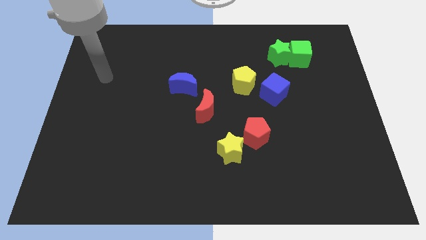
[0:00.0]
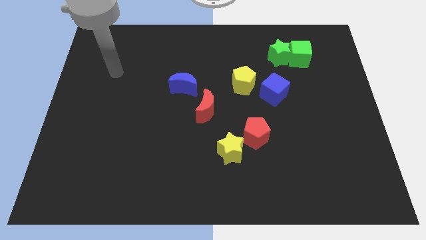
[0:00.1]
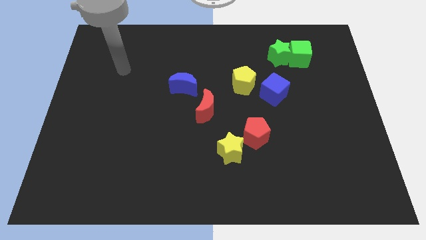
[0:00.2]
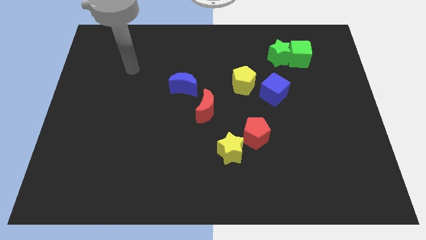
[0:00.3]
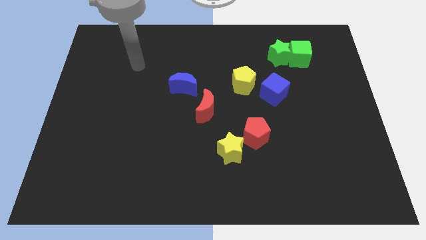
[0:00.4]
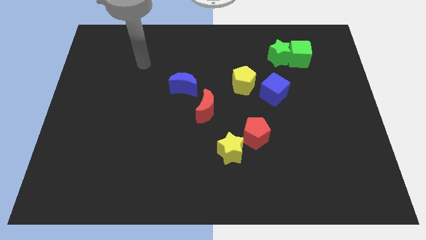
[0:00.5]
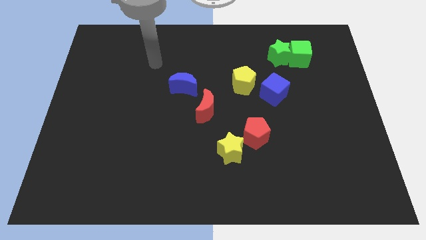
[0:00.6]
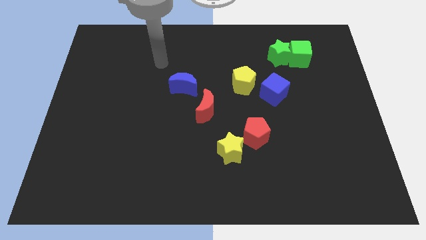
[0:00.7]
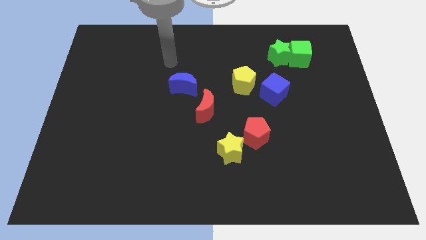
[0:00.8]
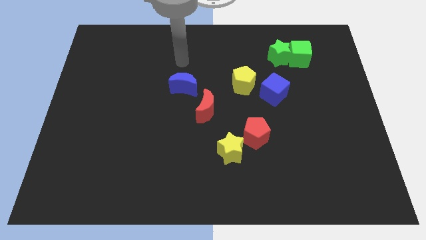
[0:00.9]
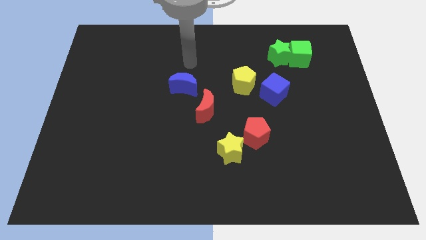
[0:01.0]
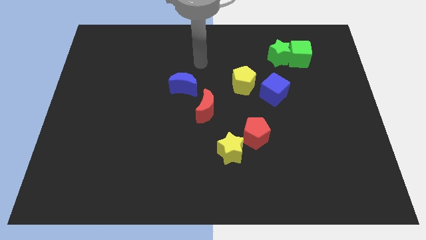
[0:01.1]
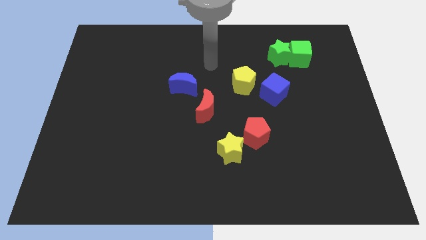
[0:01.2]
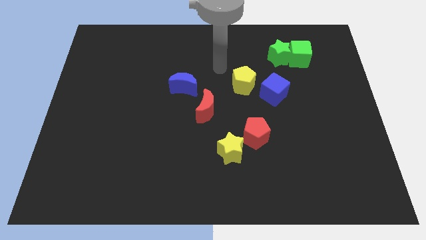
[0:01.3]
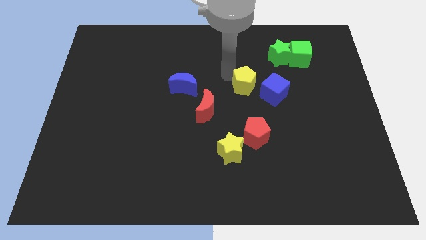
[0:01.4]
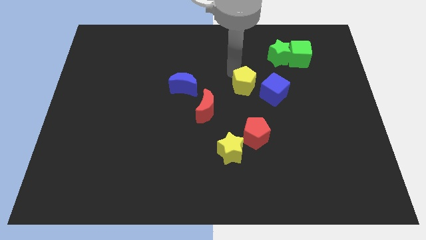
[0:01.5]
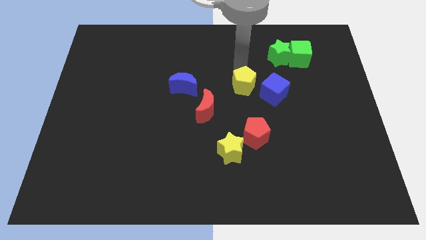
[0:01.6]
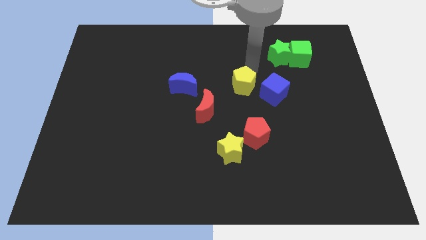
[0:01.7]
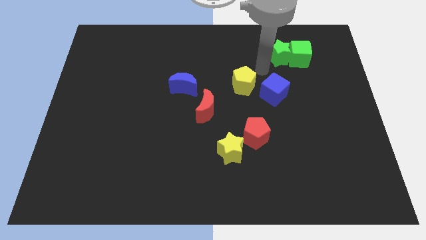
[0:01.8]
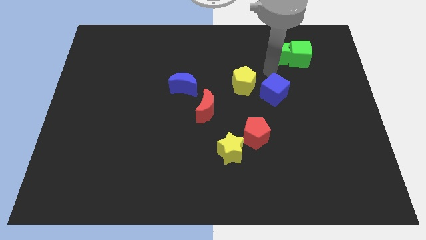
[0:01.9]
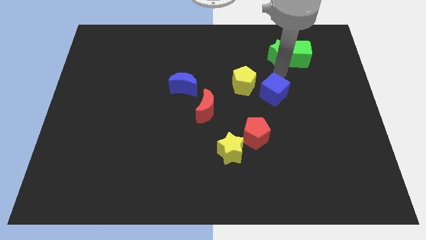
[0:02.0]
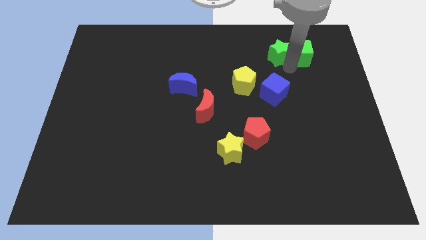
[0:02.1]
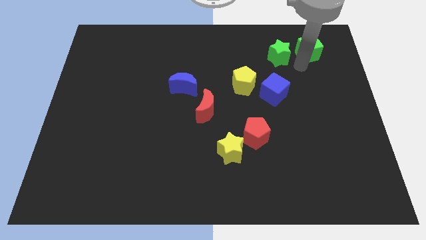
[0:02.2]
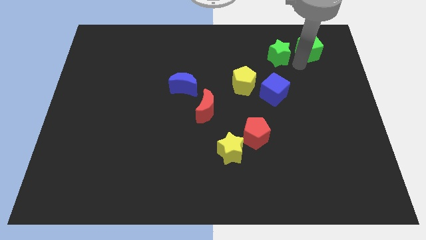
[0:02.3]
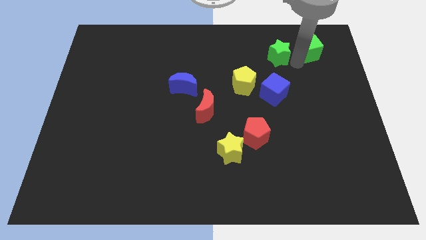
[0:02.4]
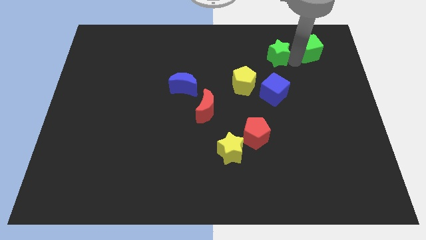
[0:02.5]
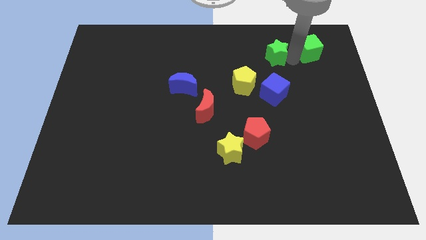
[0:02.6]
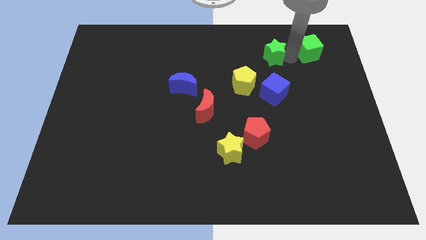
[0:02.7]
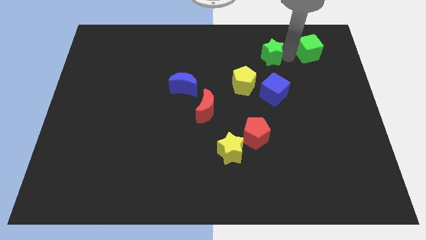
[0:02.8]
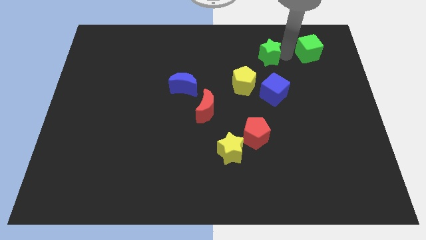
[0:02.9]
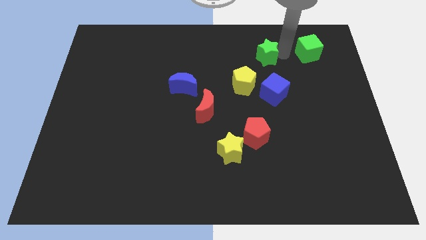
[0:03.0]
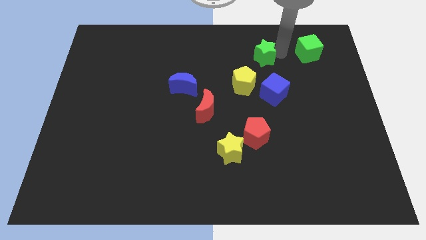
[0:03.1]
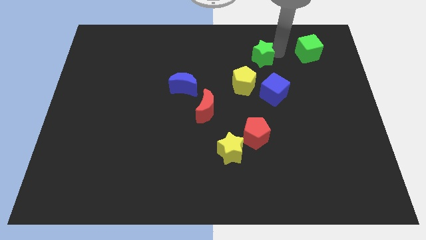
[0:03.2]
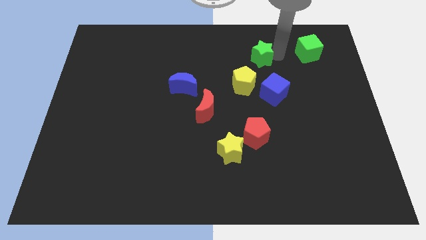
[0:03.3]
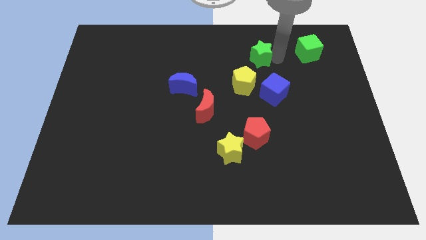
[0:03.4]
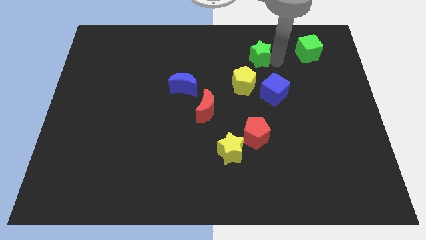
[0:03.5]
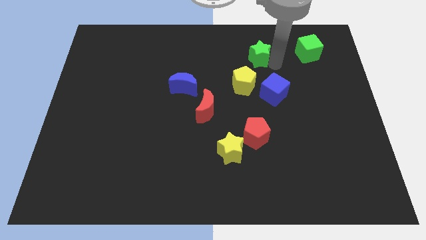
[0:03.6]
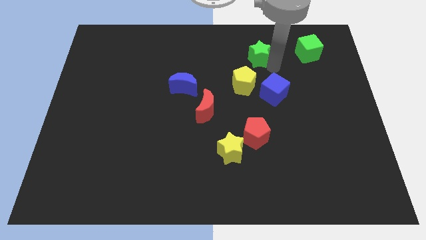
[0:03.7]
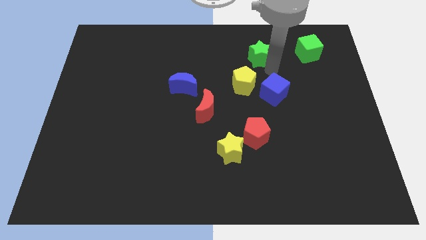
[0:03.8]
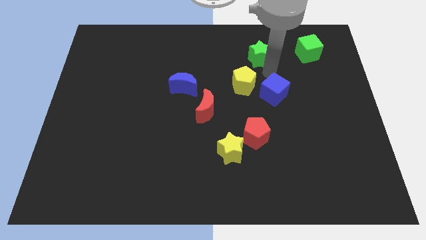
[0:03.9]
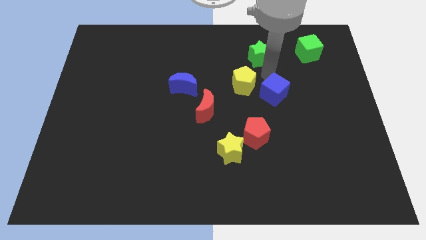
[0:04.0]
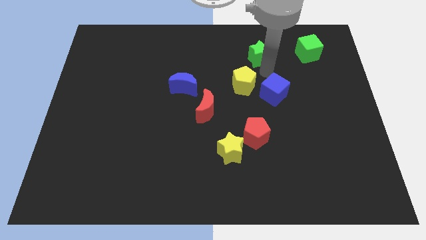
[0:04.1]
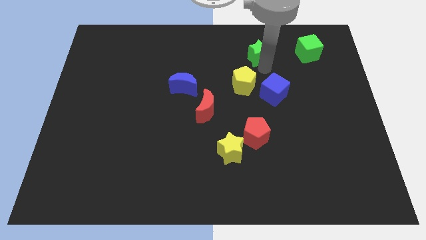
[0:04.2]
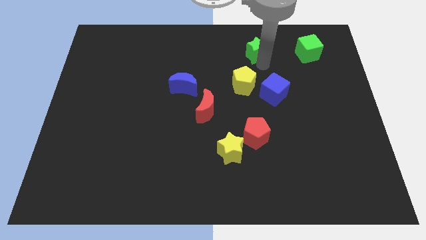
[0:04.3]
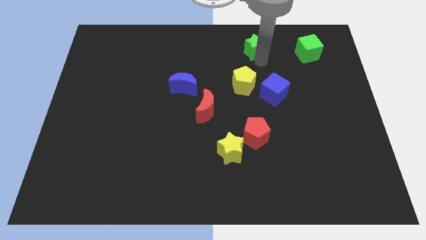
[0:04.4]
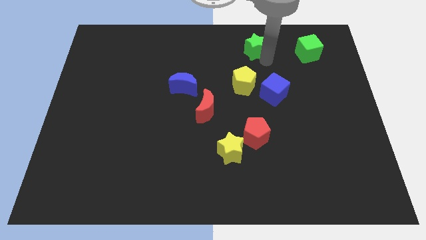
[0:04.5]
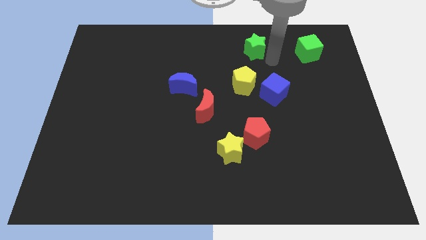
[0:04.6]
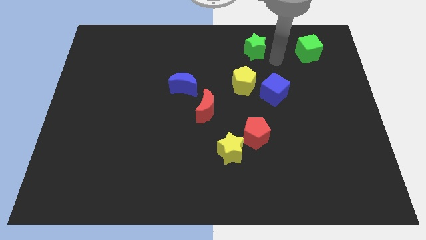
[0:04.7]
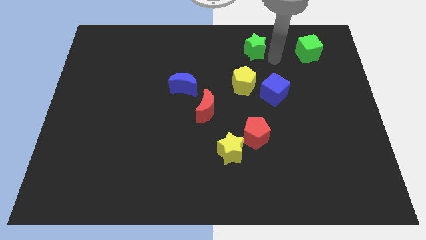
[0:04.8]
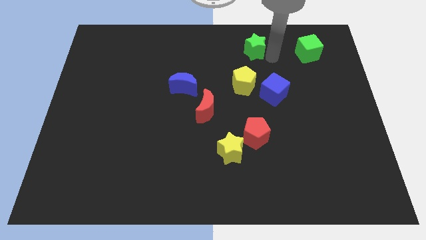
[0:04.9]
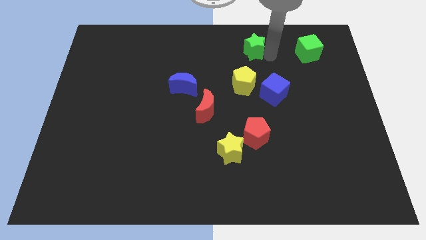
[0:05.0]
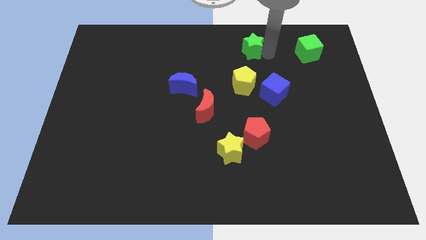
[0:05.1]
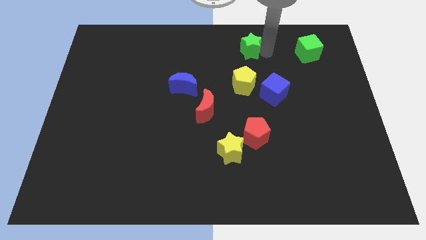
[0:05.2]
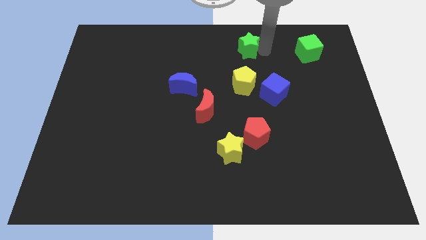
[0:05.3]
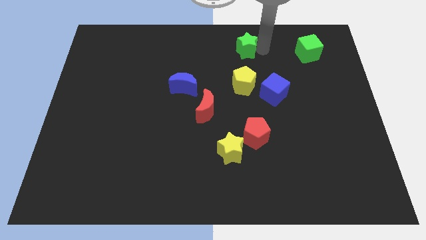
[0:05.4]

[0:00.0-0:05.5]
slide the green star to the top side

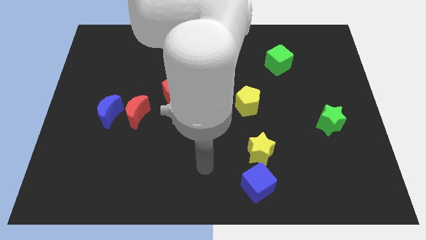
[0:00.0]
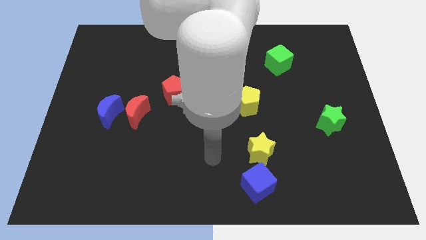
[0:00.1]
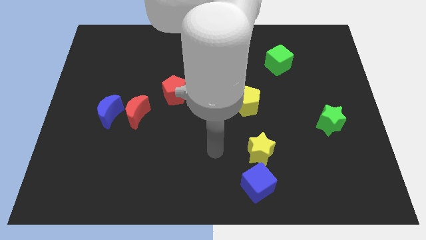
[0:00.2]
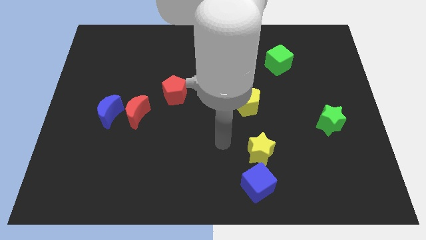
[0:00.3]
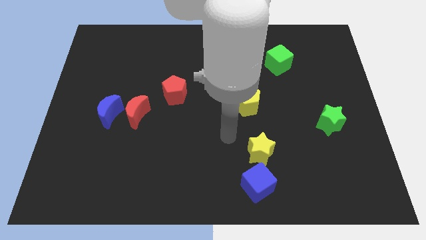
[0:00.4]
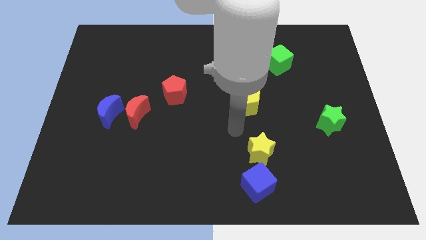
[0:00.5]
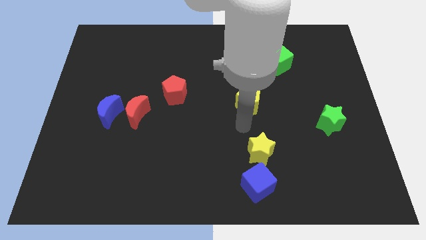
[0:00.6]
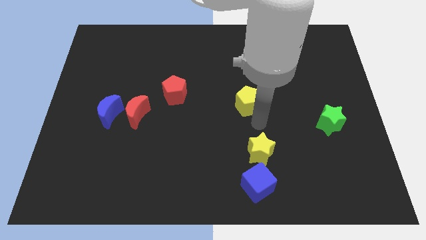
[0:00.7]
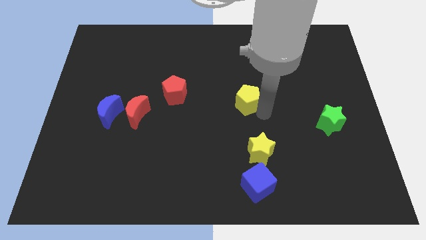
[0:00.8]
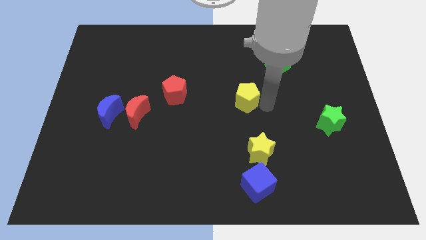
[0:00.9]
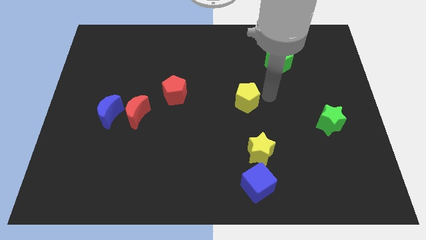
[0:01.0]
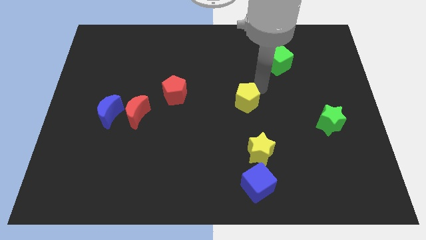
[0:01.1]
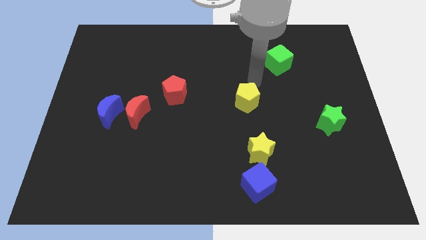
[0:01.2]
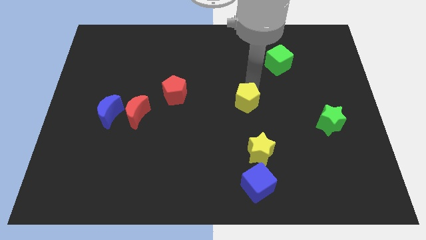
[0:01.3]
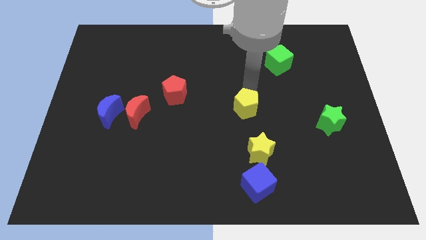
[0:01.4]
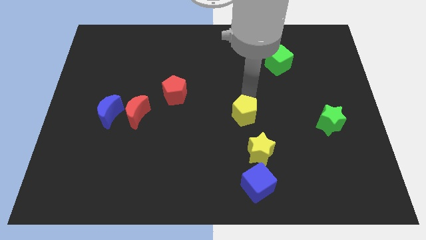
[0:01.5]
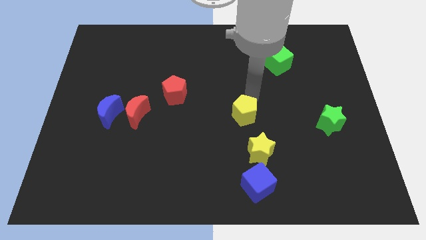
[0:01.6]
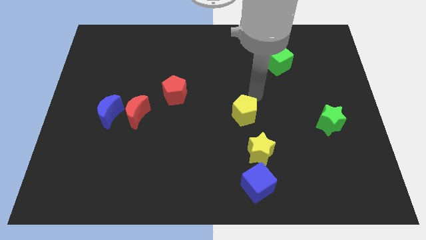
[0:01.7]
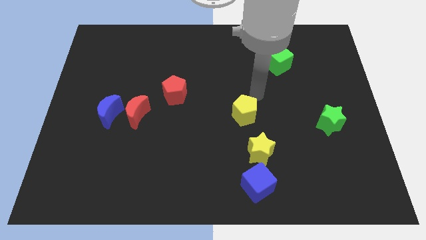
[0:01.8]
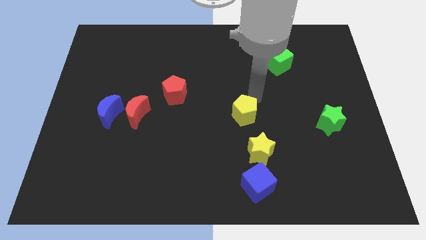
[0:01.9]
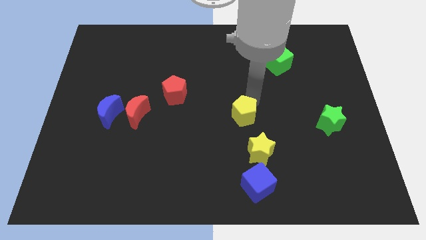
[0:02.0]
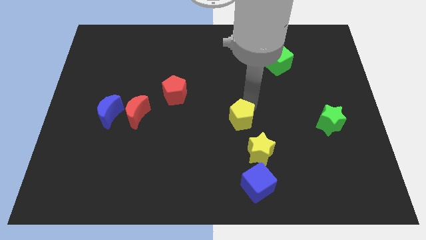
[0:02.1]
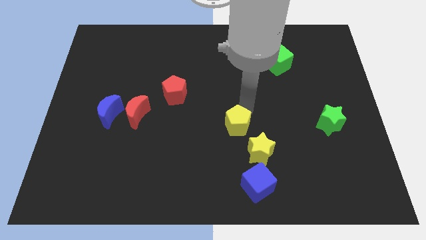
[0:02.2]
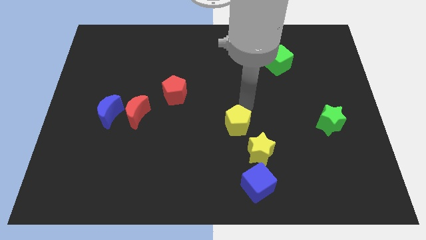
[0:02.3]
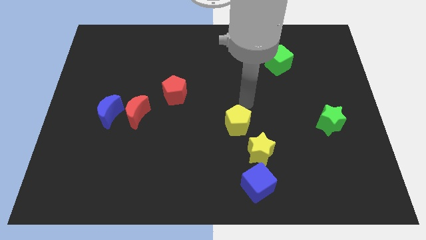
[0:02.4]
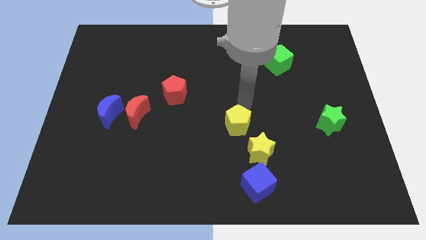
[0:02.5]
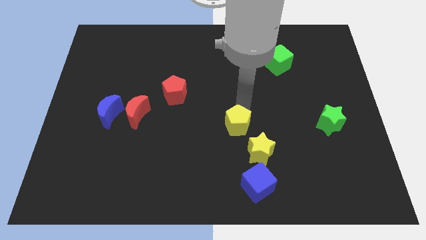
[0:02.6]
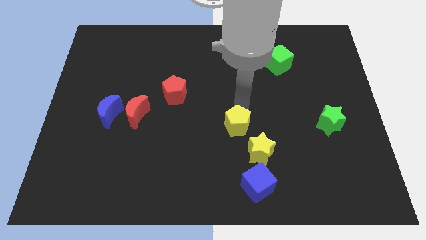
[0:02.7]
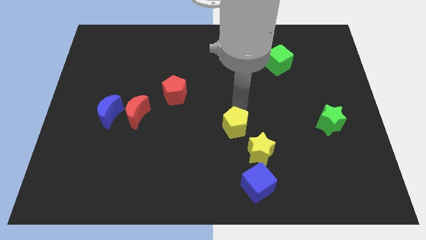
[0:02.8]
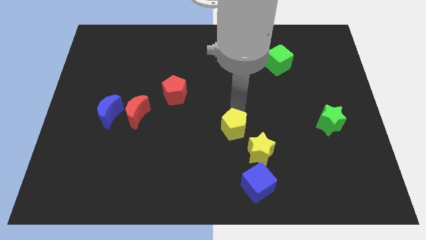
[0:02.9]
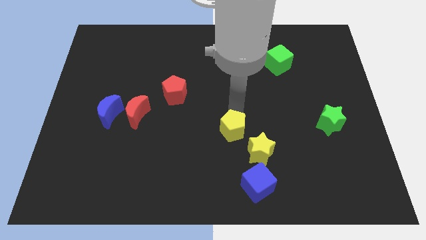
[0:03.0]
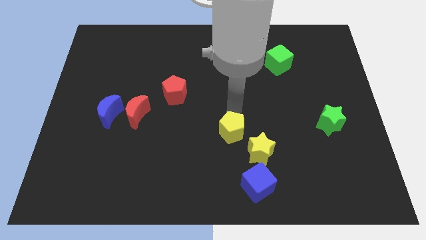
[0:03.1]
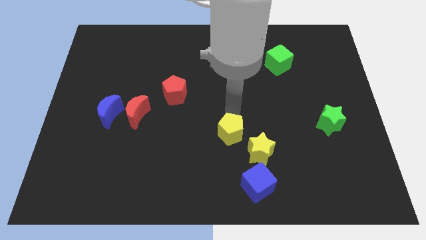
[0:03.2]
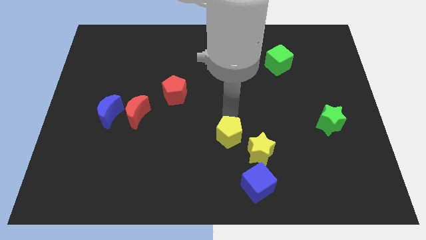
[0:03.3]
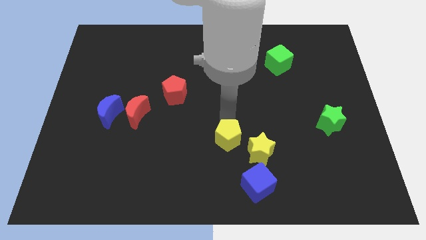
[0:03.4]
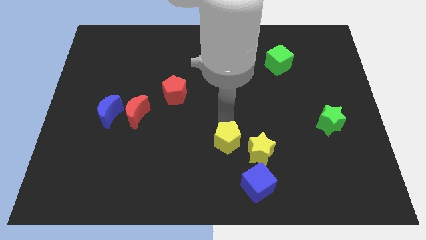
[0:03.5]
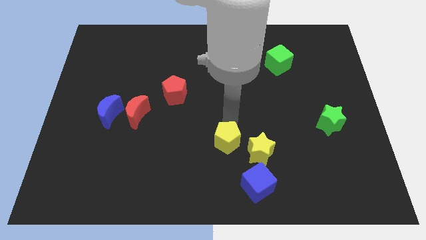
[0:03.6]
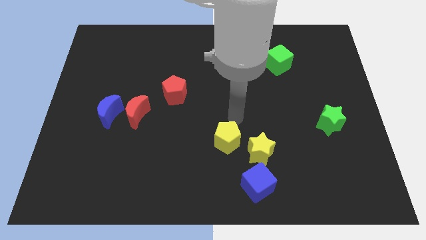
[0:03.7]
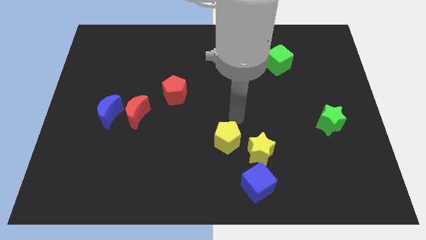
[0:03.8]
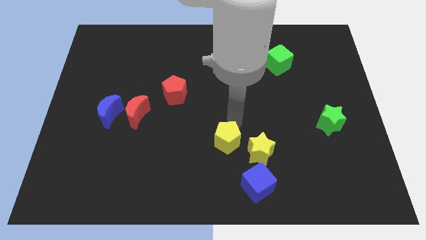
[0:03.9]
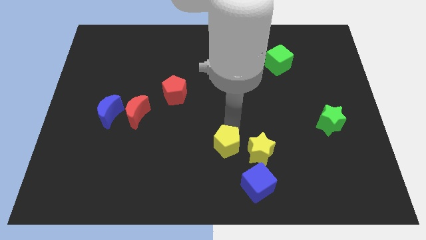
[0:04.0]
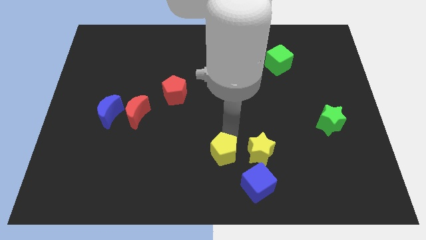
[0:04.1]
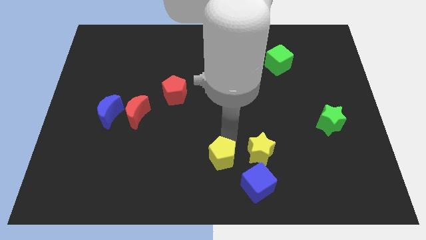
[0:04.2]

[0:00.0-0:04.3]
move the yellow pentagon to the bottom side
